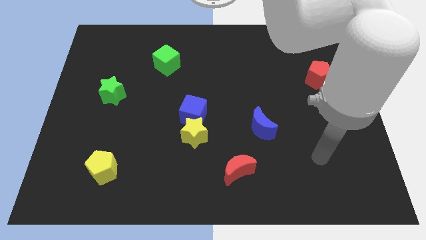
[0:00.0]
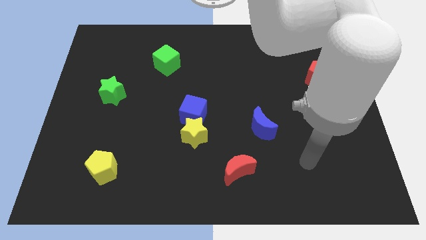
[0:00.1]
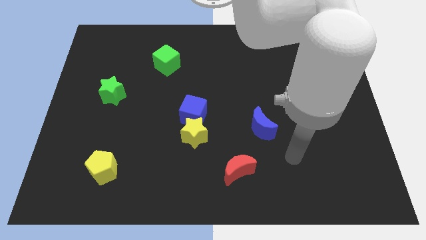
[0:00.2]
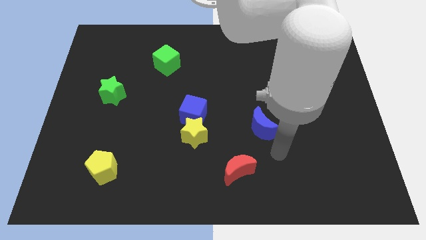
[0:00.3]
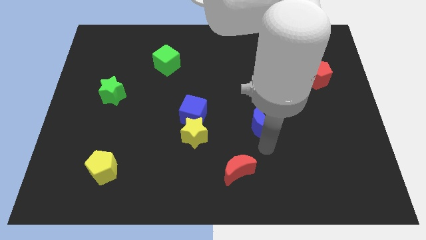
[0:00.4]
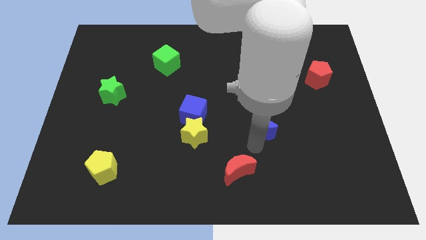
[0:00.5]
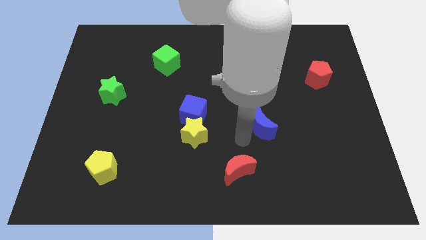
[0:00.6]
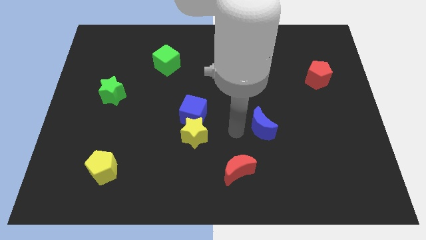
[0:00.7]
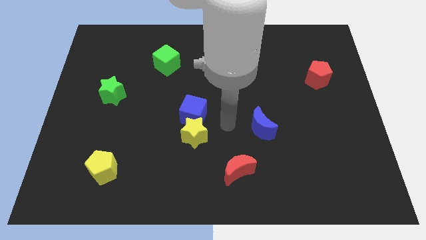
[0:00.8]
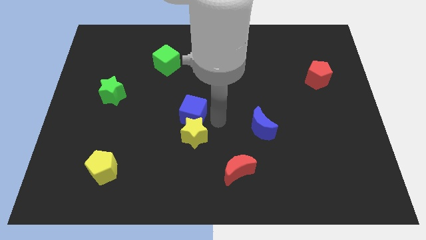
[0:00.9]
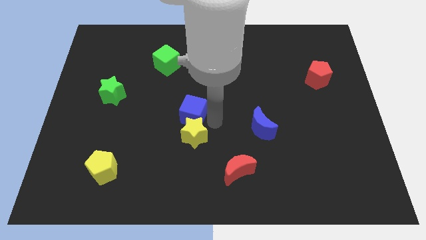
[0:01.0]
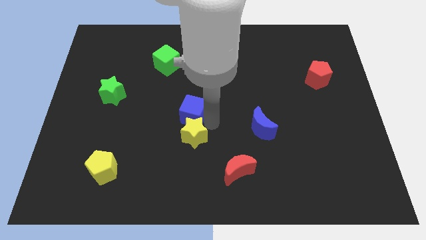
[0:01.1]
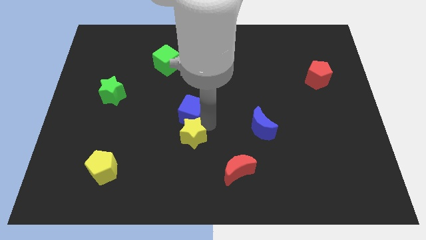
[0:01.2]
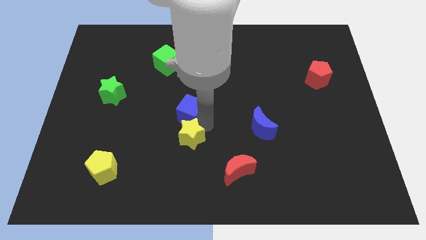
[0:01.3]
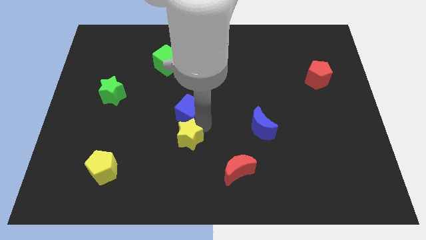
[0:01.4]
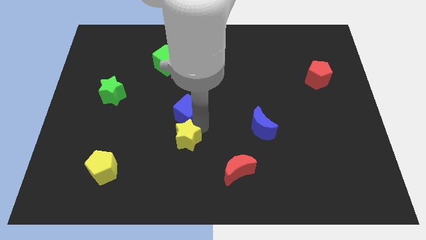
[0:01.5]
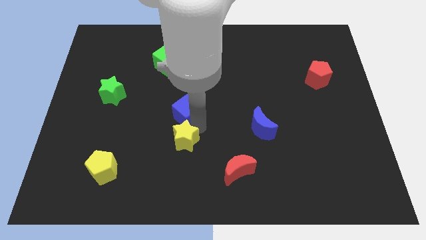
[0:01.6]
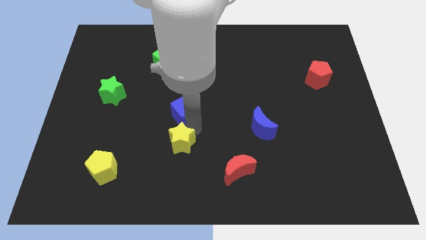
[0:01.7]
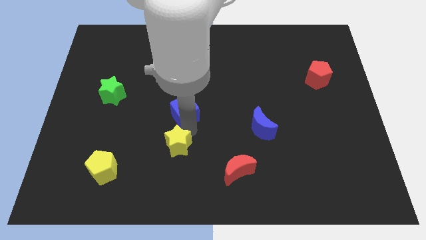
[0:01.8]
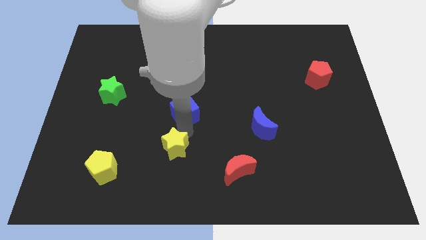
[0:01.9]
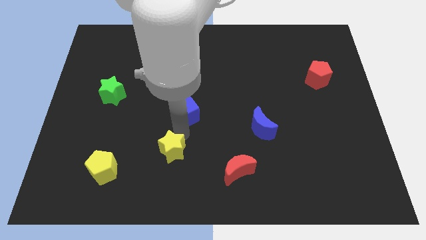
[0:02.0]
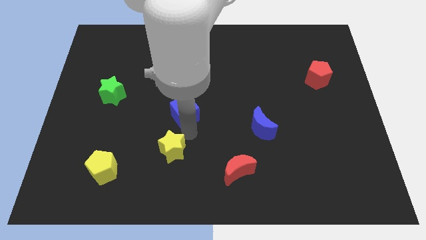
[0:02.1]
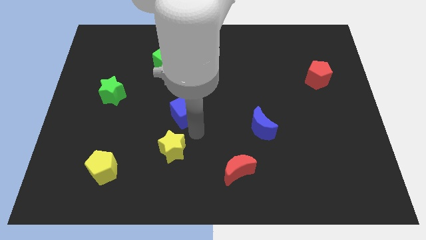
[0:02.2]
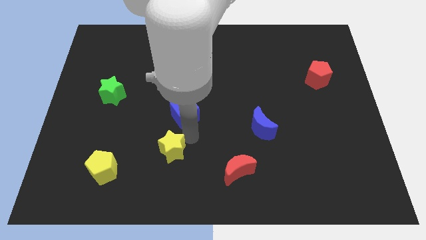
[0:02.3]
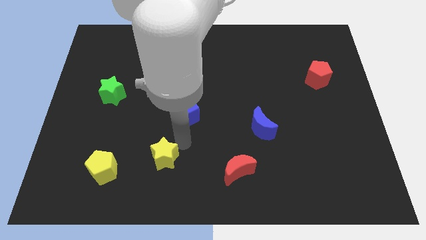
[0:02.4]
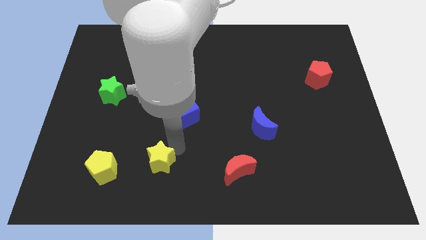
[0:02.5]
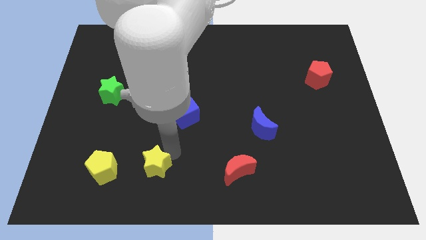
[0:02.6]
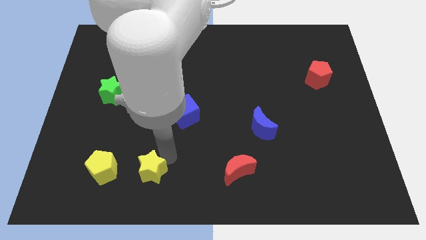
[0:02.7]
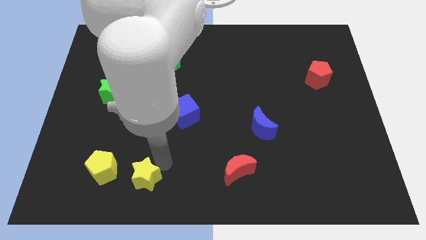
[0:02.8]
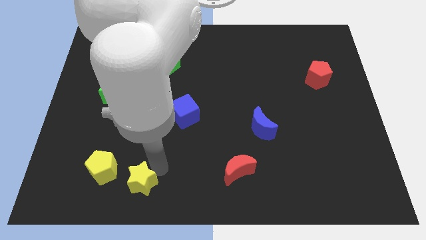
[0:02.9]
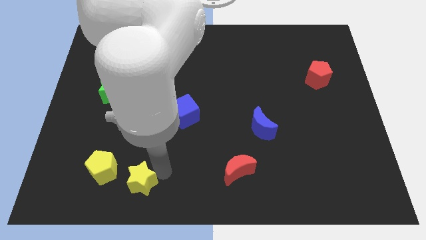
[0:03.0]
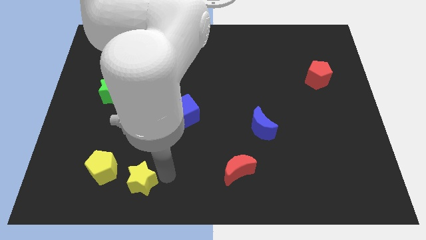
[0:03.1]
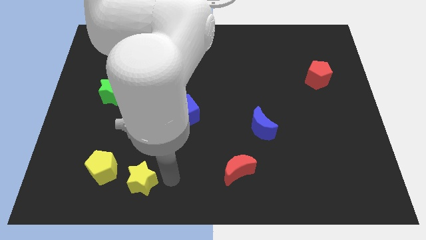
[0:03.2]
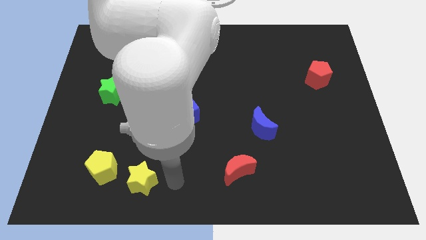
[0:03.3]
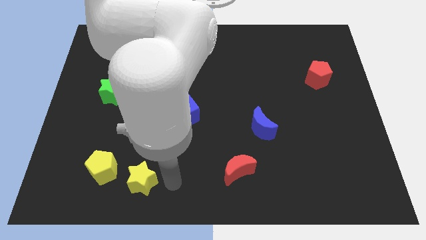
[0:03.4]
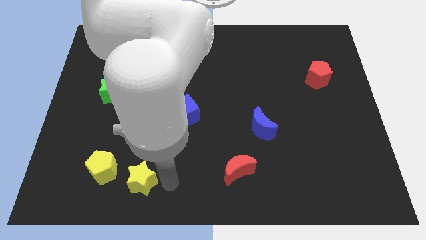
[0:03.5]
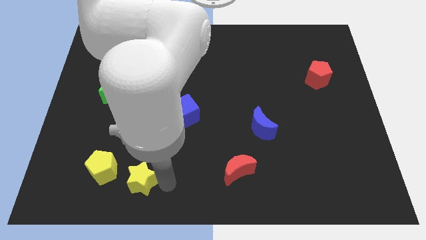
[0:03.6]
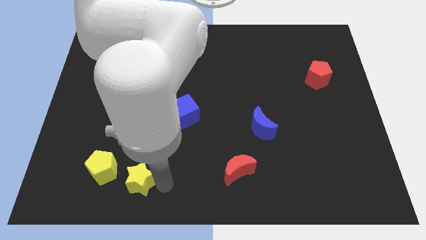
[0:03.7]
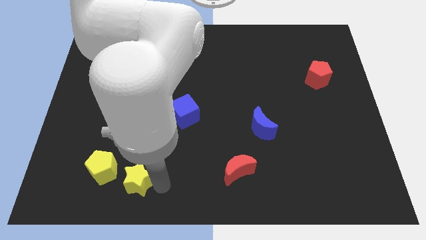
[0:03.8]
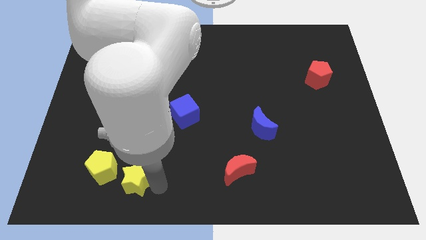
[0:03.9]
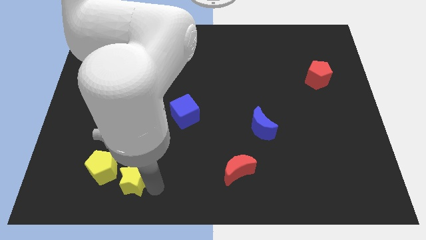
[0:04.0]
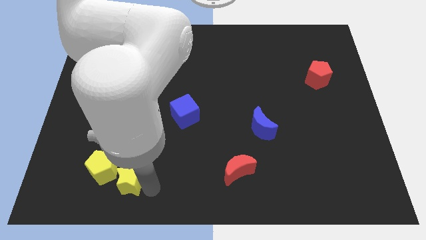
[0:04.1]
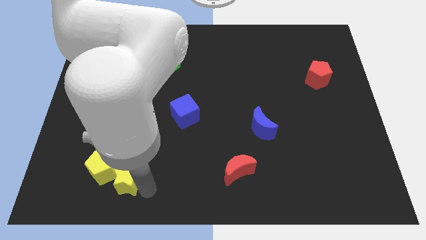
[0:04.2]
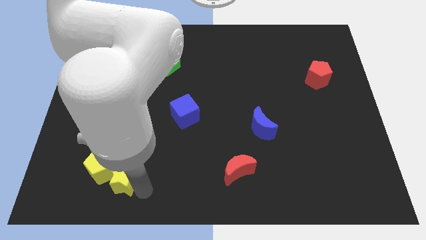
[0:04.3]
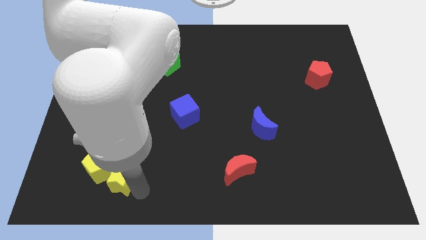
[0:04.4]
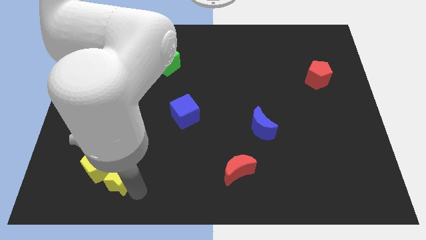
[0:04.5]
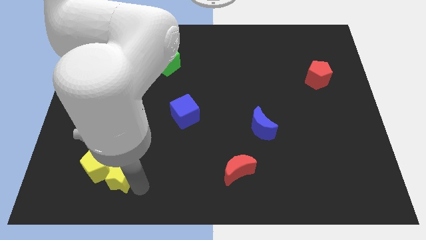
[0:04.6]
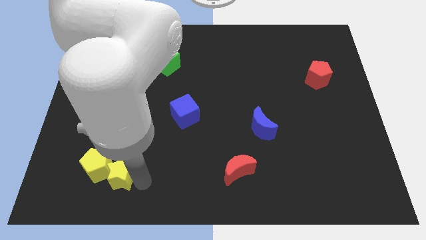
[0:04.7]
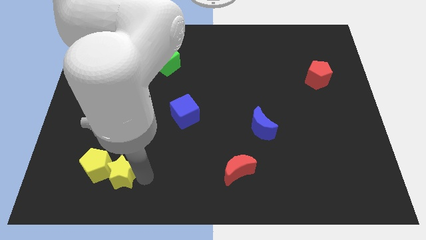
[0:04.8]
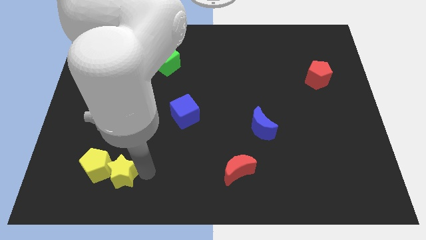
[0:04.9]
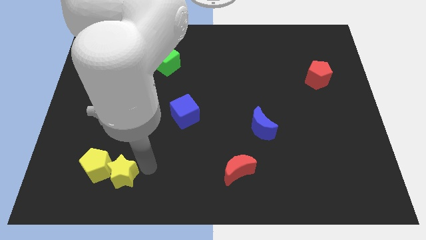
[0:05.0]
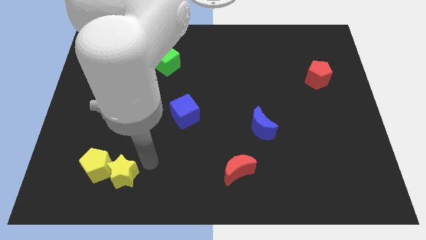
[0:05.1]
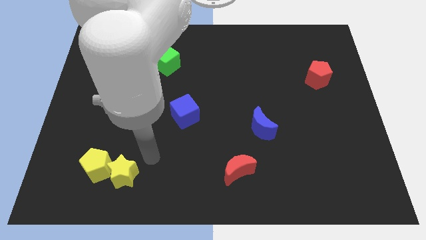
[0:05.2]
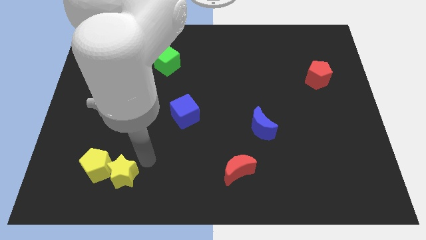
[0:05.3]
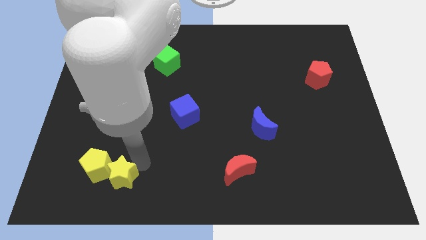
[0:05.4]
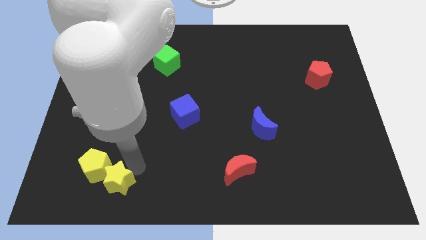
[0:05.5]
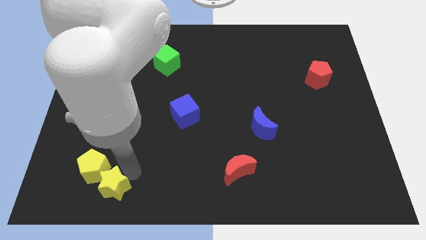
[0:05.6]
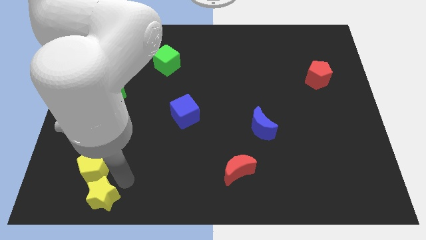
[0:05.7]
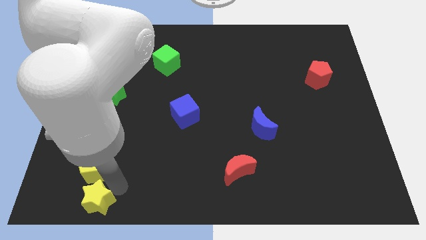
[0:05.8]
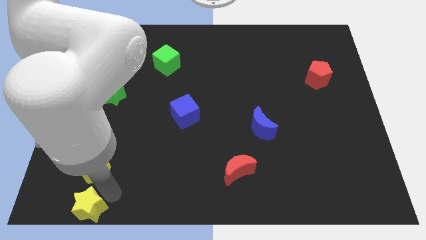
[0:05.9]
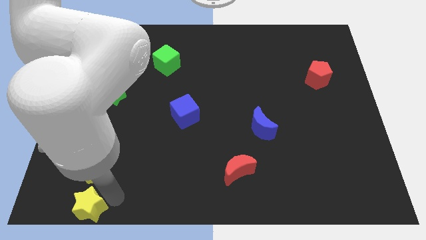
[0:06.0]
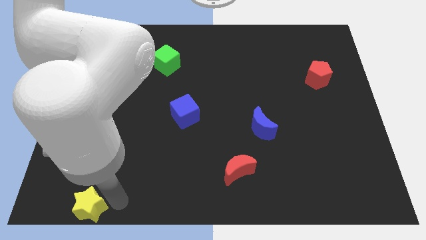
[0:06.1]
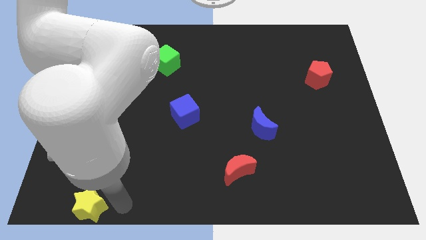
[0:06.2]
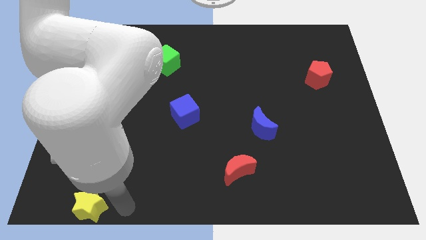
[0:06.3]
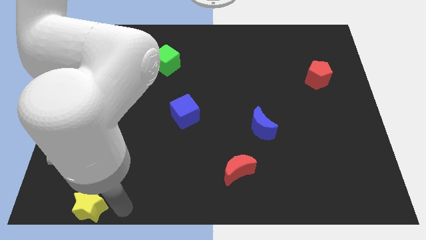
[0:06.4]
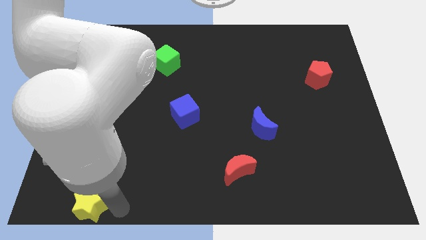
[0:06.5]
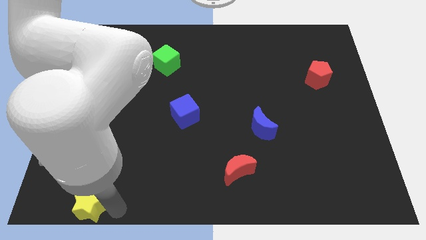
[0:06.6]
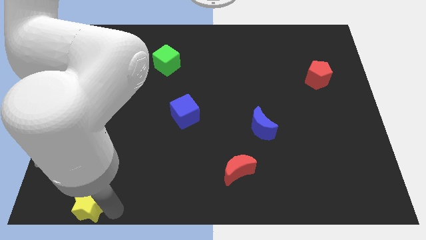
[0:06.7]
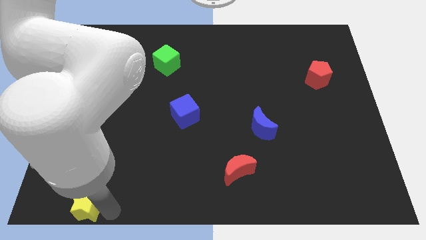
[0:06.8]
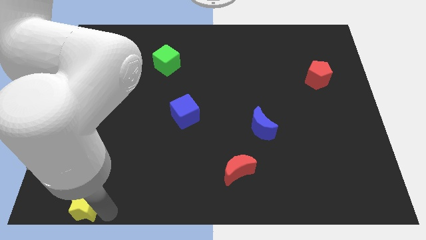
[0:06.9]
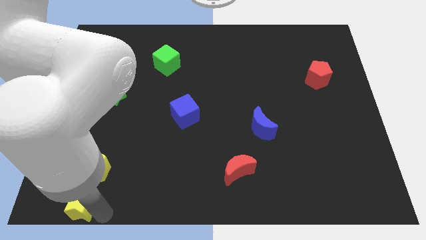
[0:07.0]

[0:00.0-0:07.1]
move the yellow star to the lower left corner
